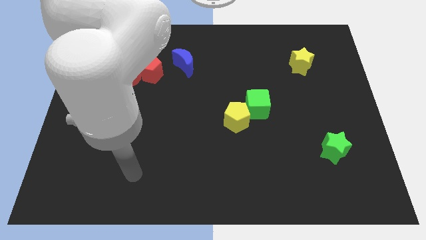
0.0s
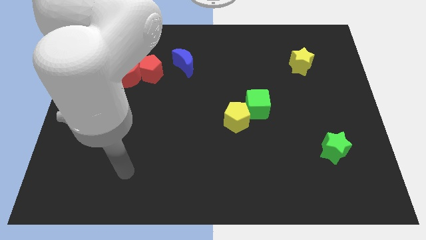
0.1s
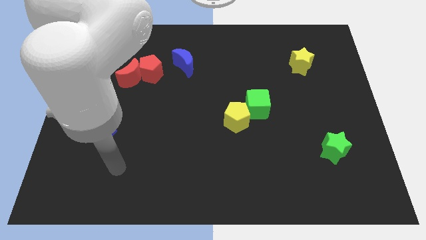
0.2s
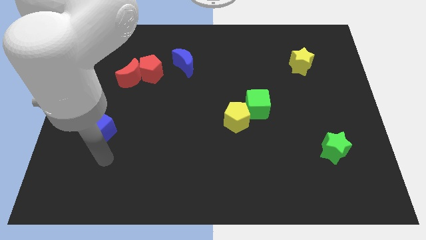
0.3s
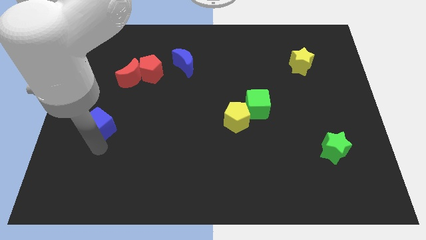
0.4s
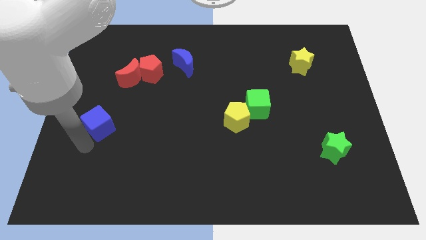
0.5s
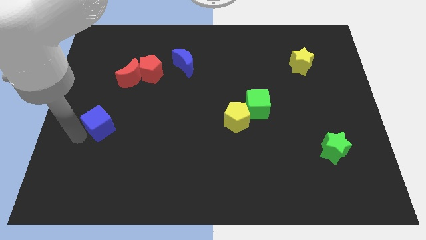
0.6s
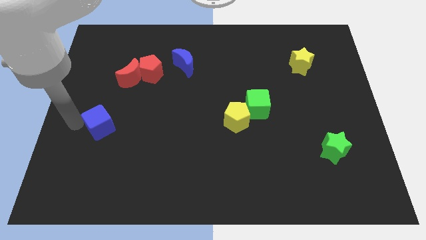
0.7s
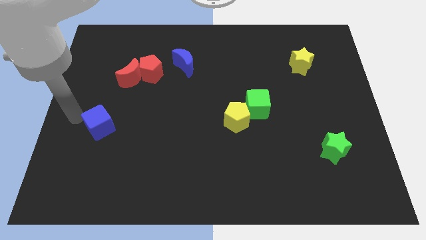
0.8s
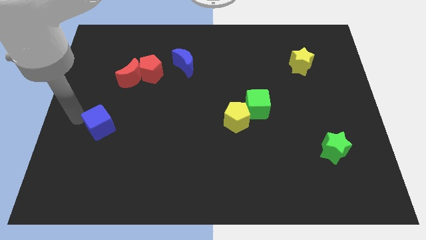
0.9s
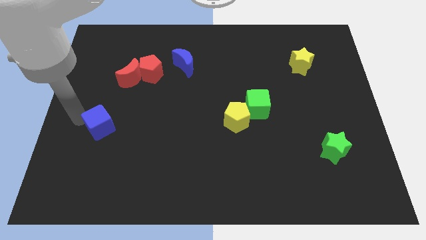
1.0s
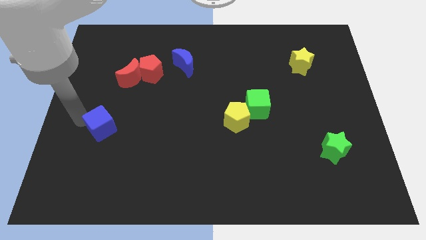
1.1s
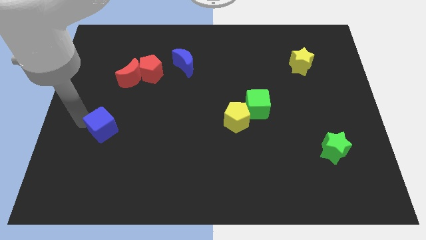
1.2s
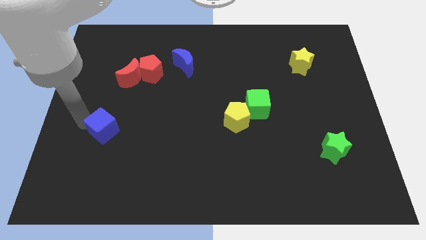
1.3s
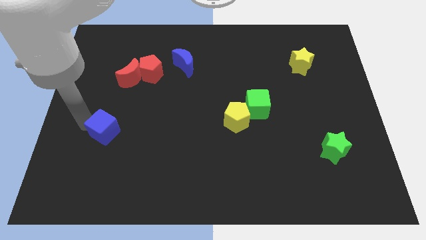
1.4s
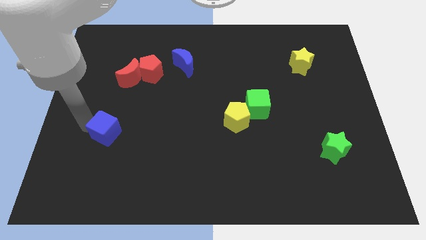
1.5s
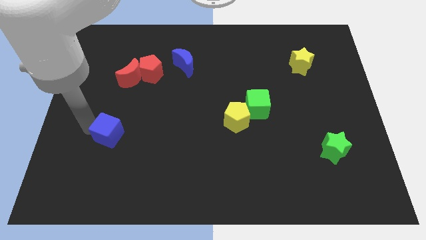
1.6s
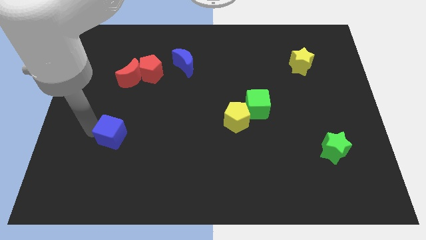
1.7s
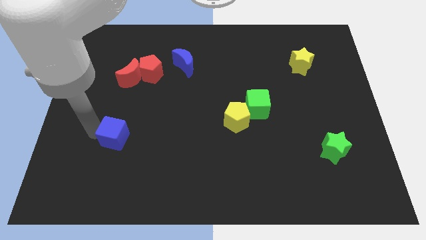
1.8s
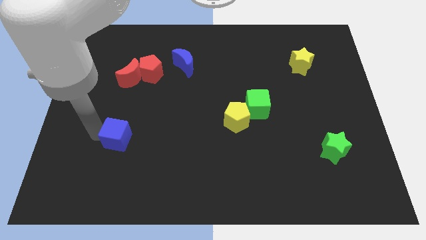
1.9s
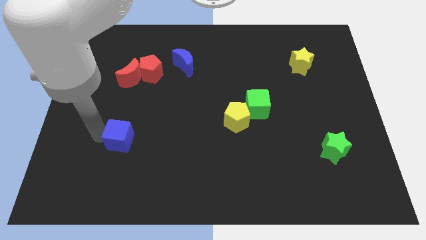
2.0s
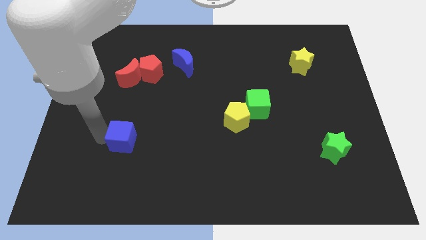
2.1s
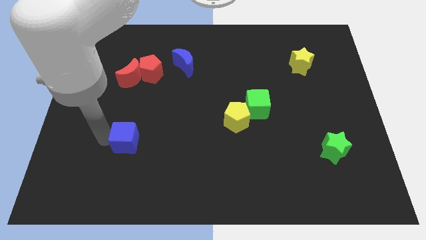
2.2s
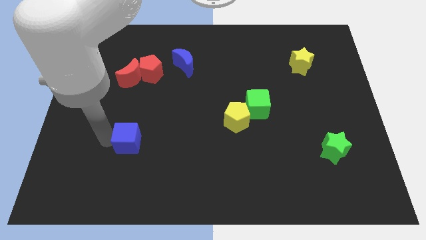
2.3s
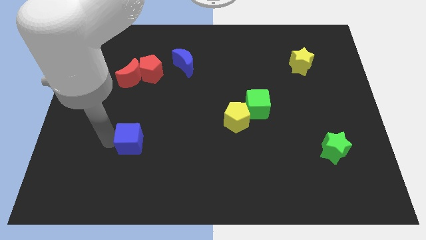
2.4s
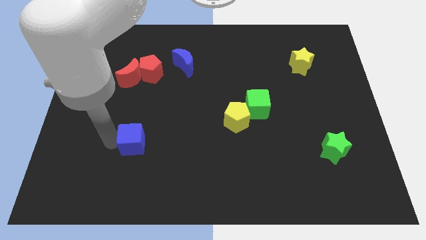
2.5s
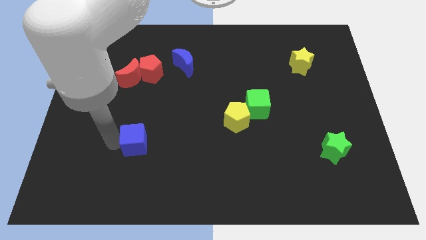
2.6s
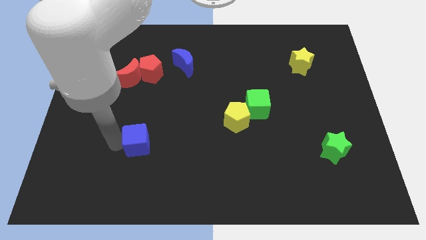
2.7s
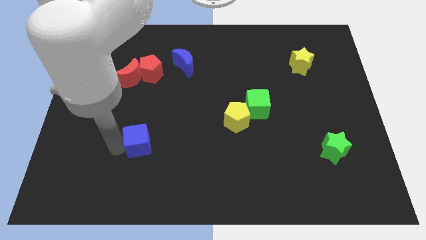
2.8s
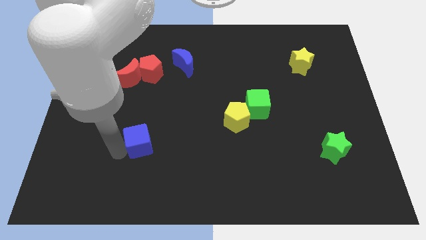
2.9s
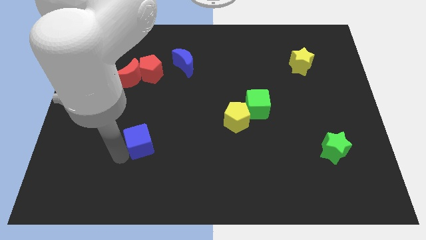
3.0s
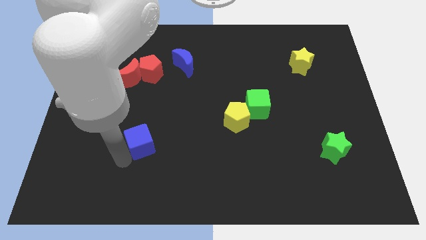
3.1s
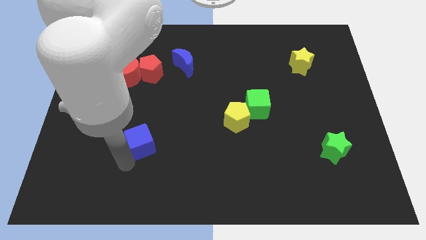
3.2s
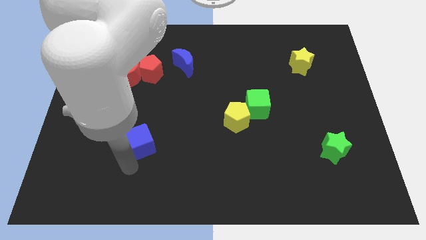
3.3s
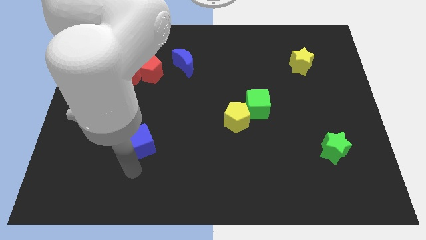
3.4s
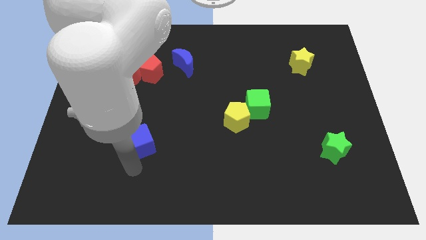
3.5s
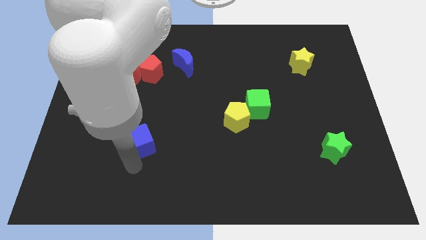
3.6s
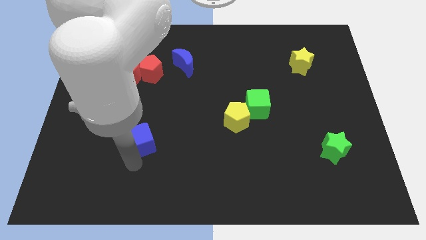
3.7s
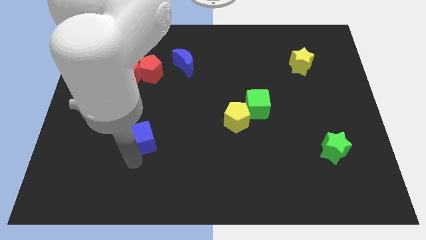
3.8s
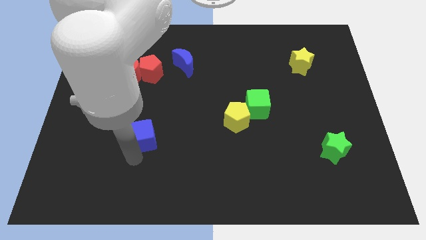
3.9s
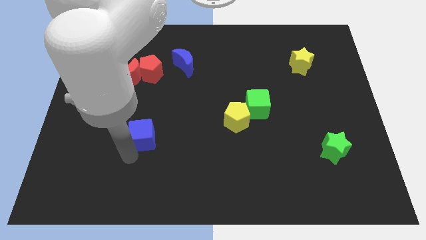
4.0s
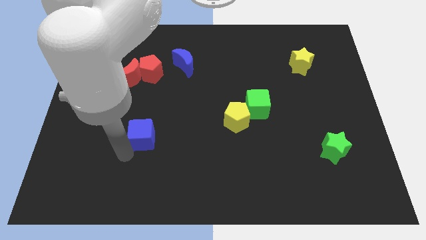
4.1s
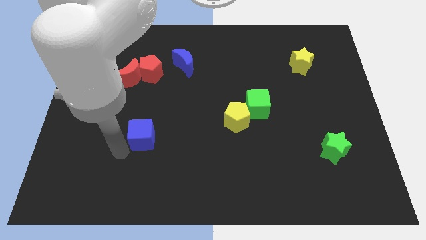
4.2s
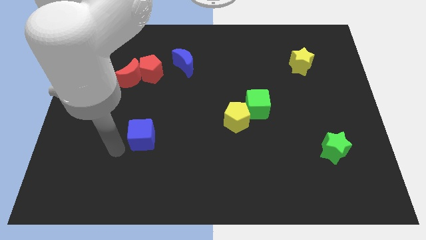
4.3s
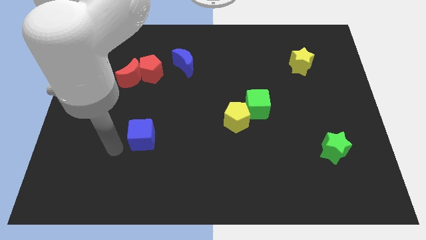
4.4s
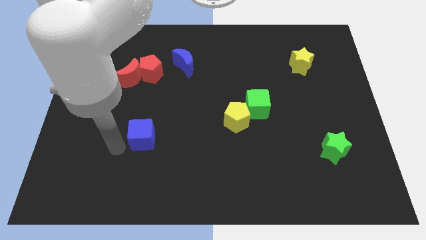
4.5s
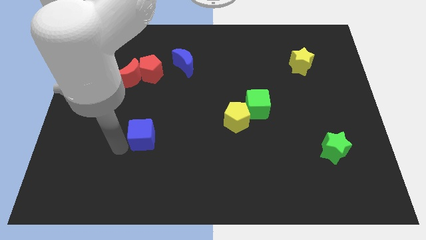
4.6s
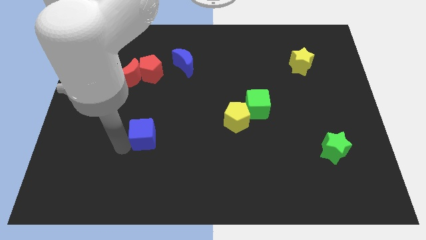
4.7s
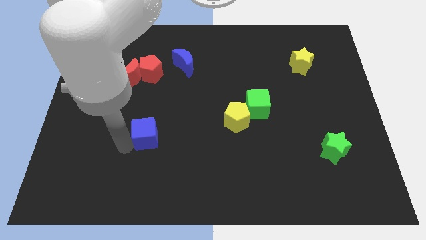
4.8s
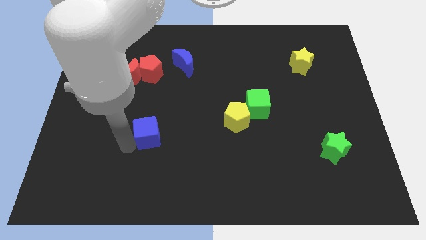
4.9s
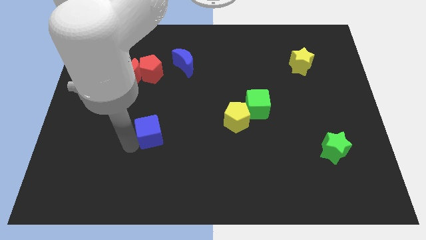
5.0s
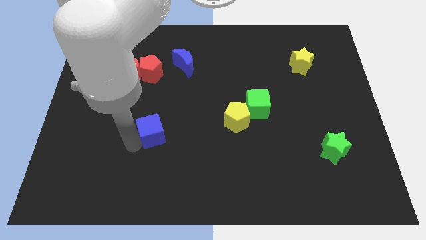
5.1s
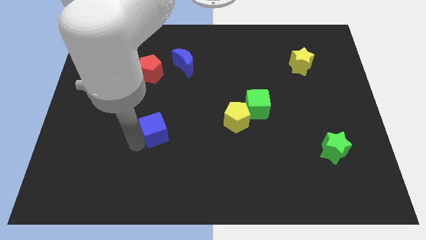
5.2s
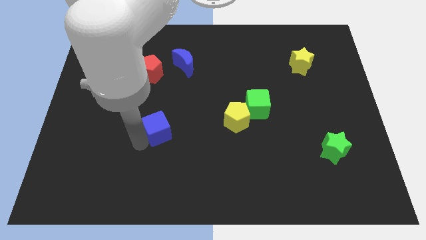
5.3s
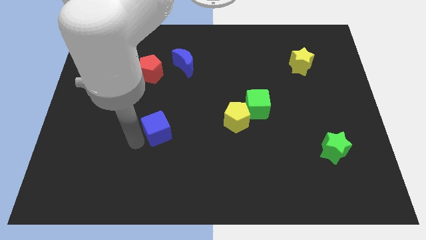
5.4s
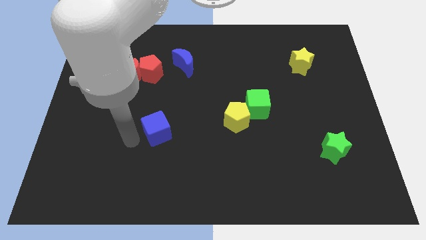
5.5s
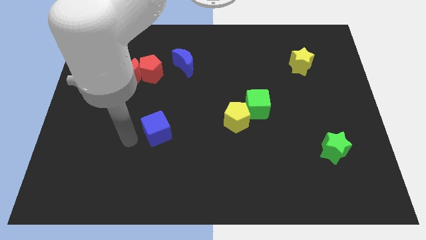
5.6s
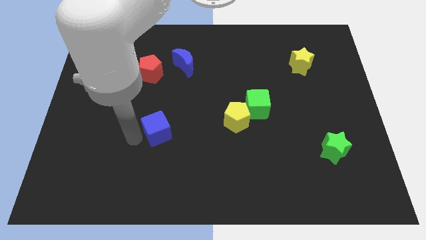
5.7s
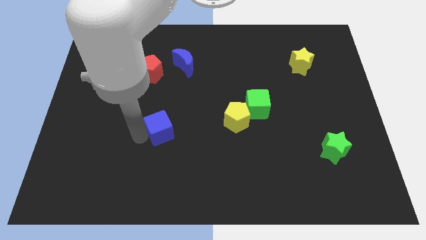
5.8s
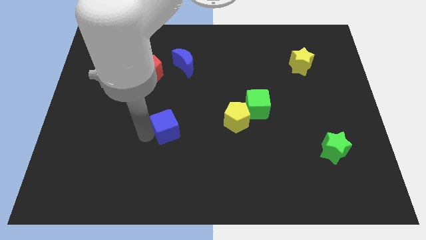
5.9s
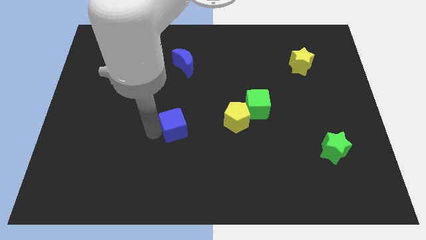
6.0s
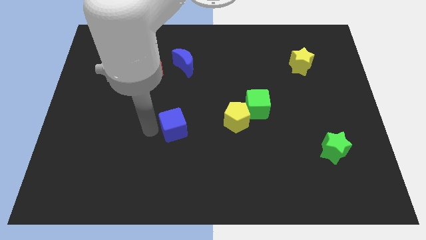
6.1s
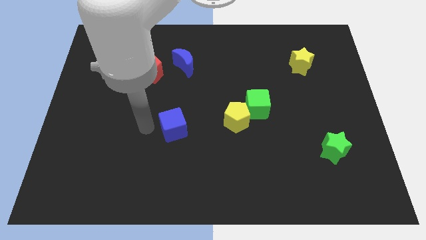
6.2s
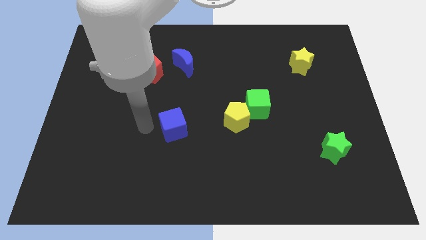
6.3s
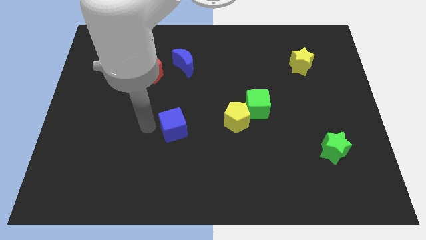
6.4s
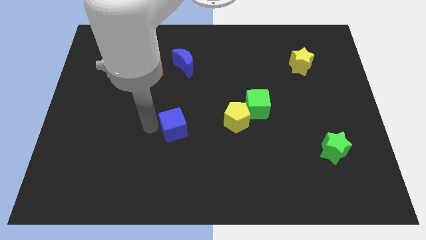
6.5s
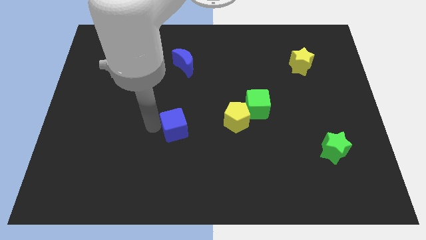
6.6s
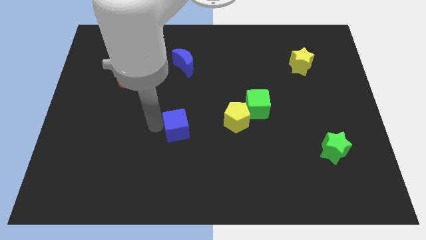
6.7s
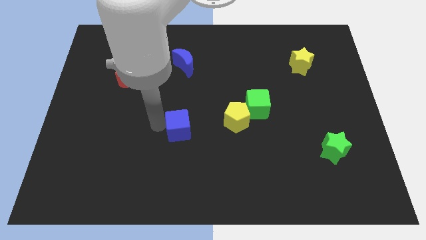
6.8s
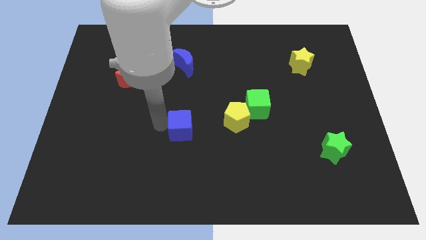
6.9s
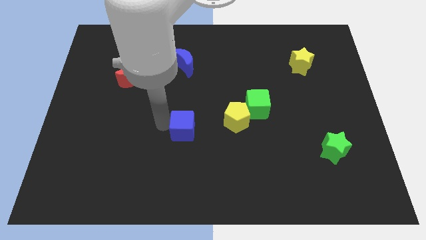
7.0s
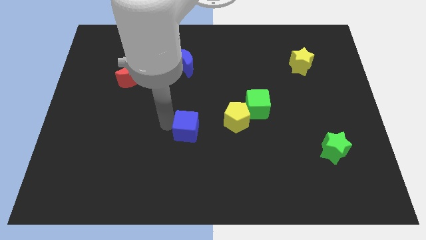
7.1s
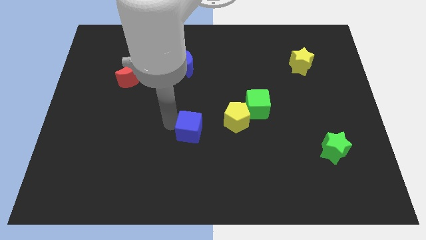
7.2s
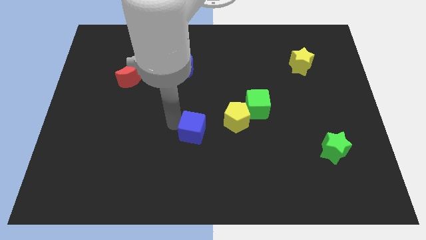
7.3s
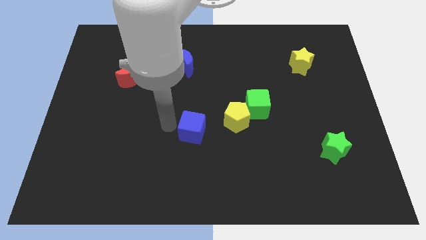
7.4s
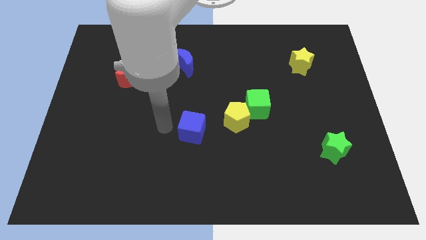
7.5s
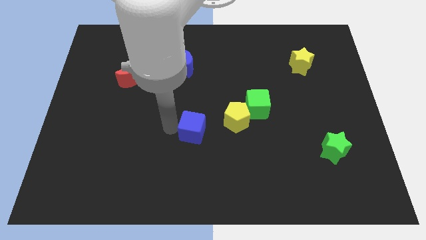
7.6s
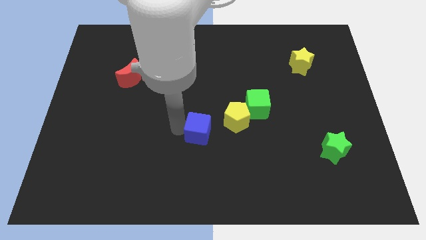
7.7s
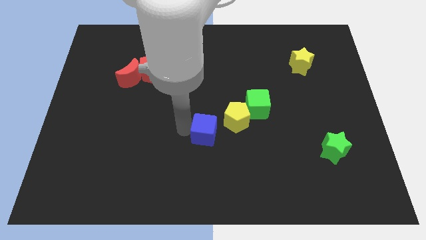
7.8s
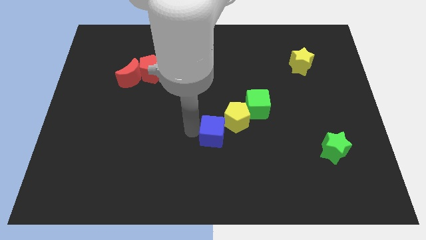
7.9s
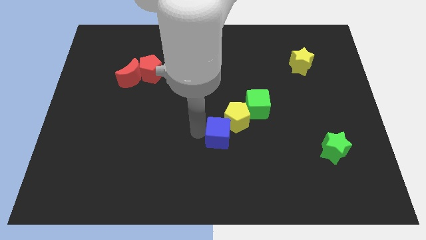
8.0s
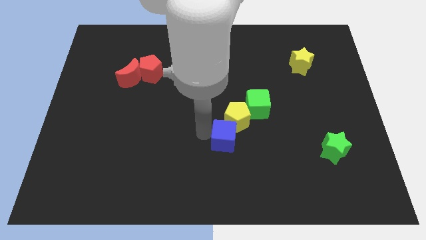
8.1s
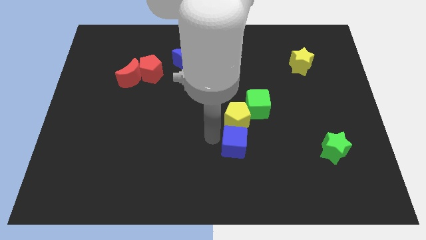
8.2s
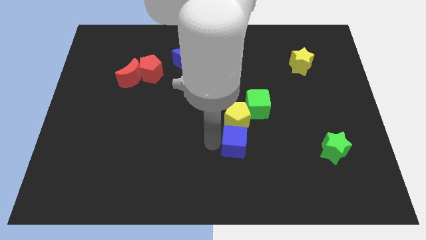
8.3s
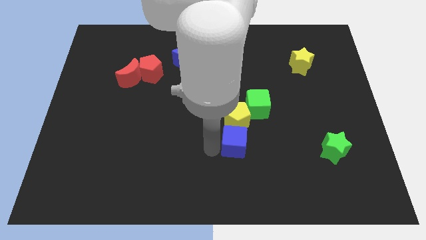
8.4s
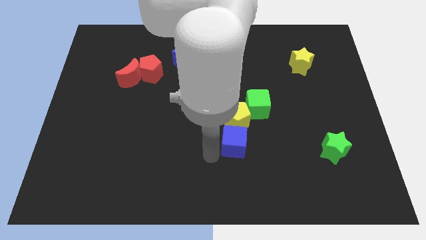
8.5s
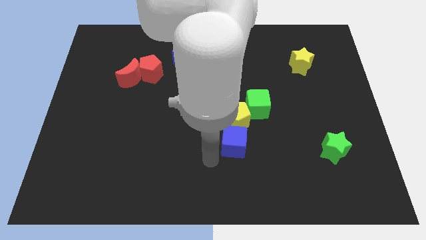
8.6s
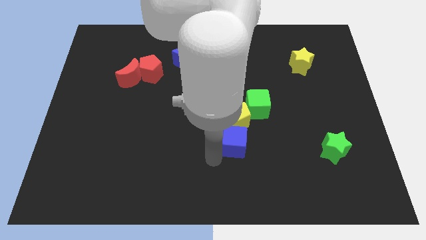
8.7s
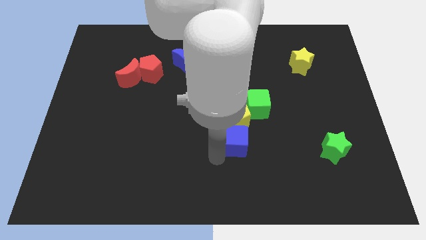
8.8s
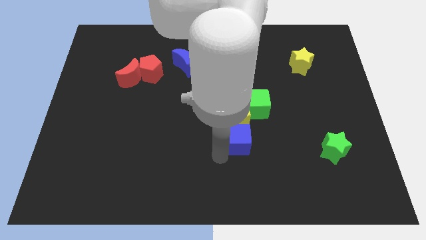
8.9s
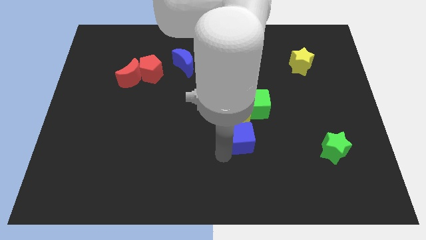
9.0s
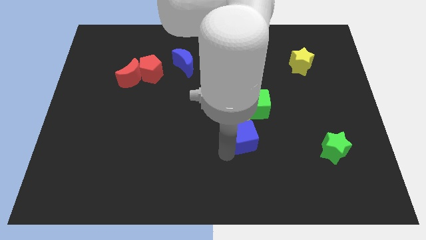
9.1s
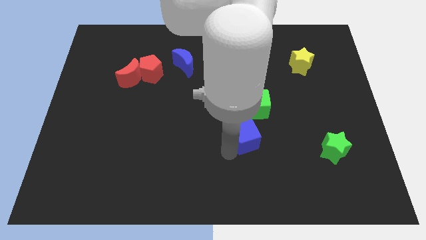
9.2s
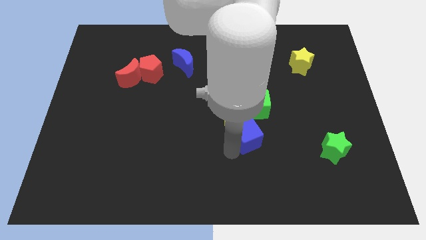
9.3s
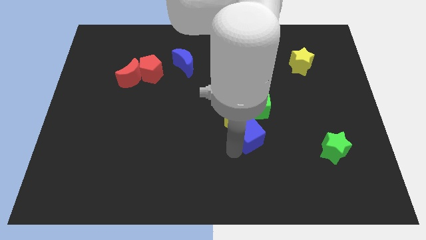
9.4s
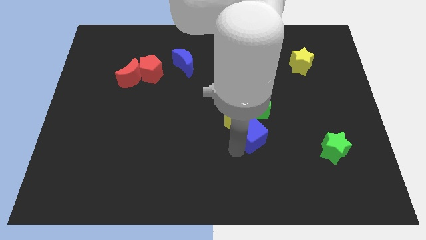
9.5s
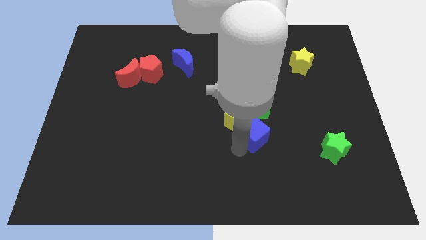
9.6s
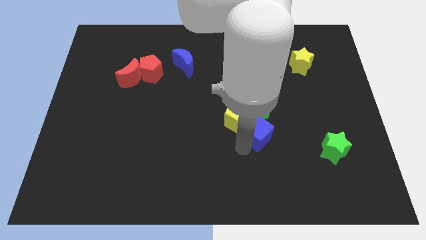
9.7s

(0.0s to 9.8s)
move the blue cube right of the yellow pentagon
